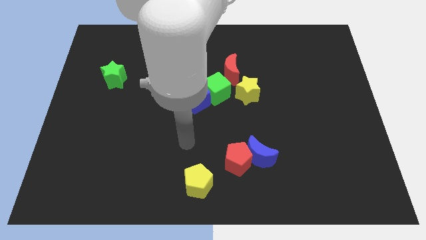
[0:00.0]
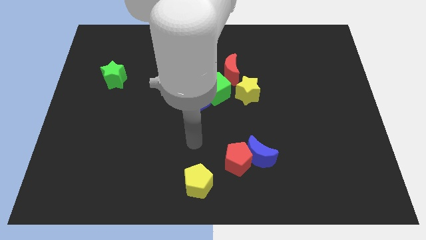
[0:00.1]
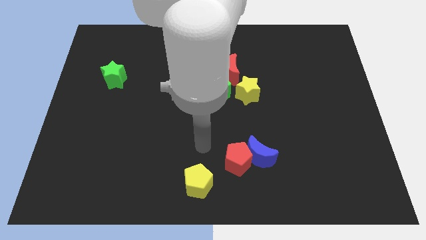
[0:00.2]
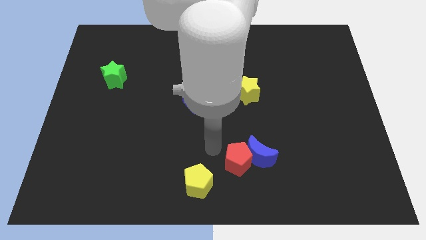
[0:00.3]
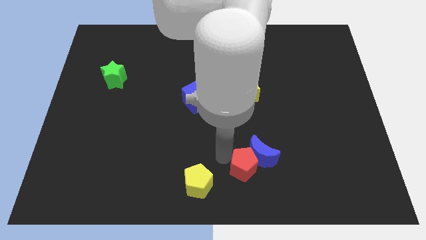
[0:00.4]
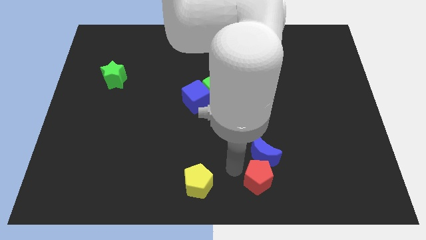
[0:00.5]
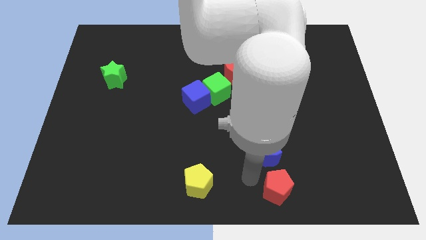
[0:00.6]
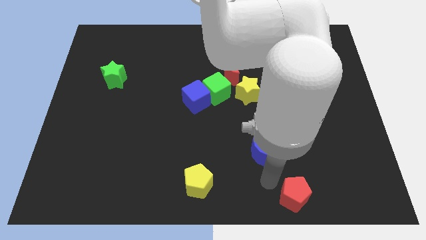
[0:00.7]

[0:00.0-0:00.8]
separate the blue moon from the red pentagon

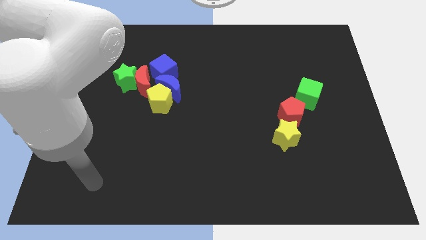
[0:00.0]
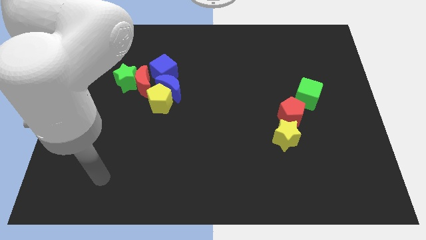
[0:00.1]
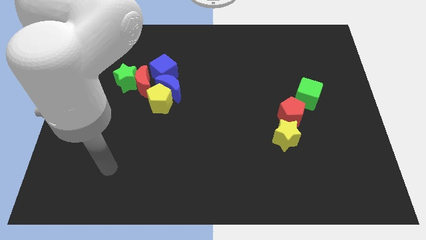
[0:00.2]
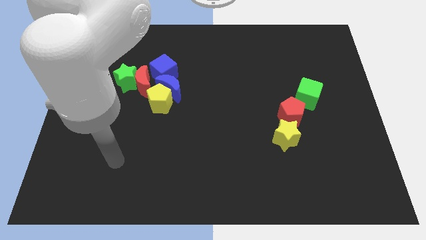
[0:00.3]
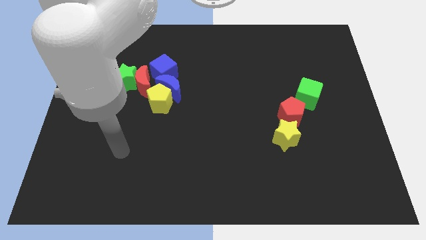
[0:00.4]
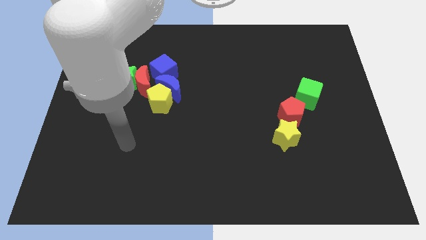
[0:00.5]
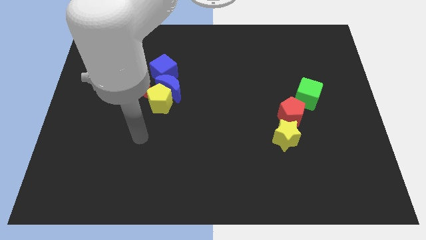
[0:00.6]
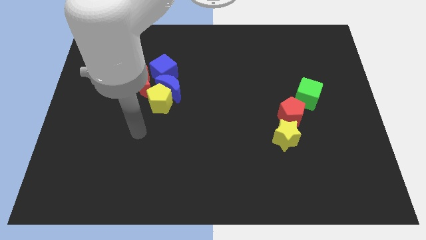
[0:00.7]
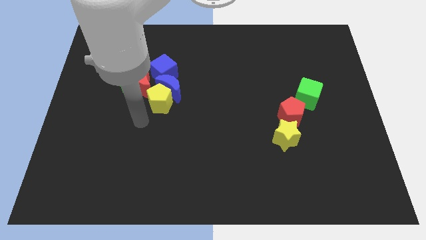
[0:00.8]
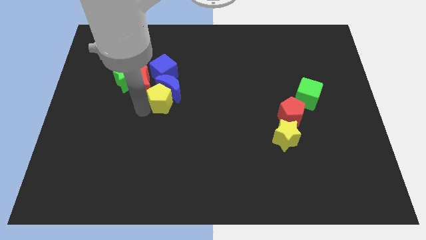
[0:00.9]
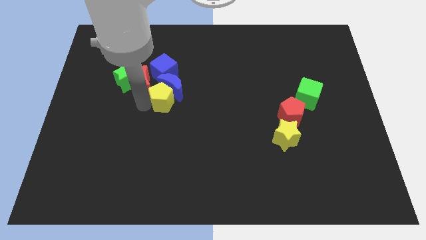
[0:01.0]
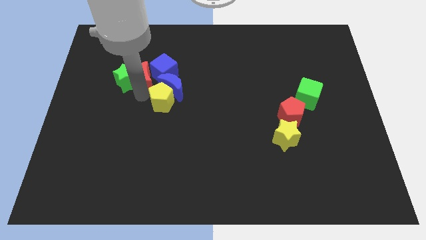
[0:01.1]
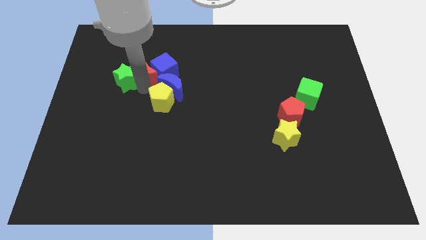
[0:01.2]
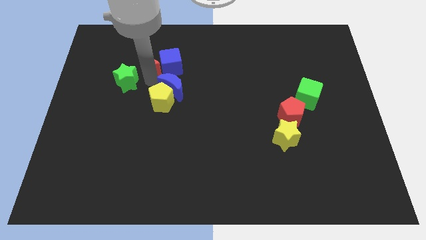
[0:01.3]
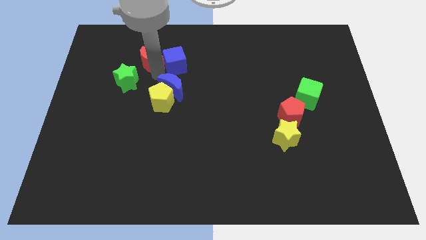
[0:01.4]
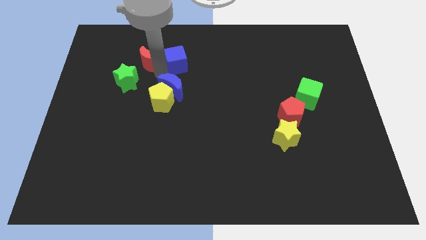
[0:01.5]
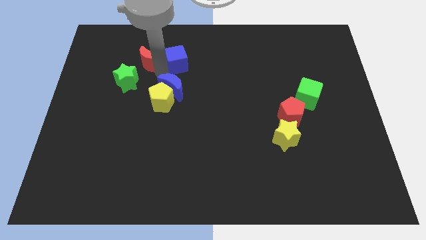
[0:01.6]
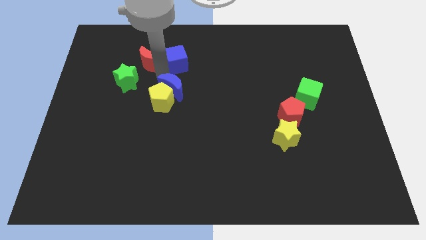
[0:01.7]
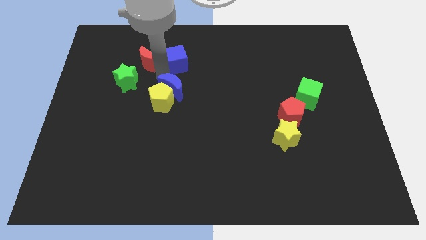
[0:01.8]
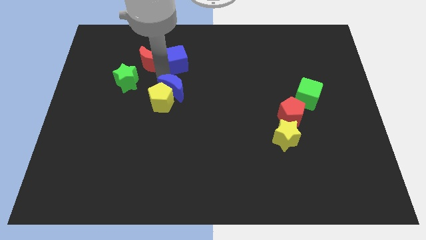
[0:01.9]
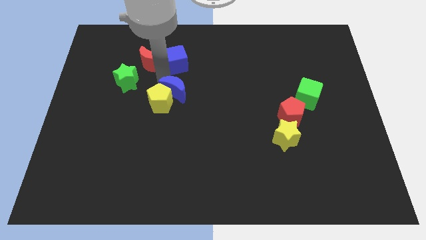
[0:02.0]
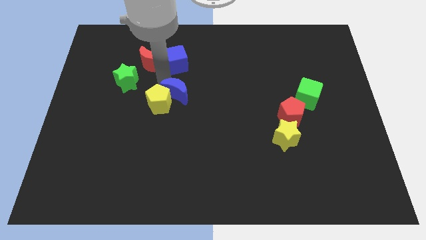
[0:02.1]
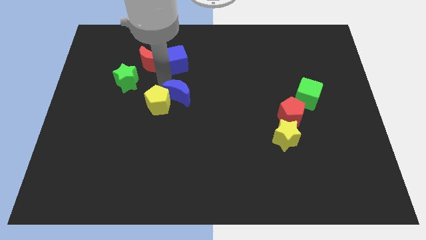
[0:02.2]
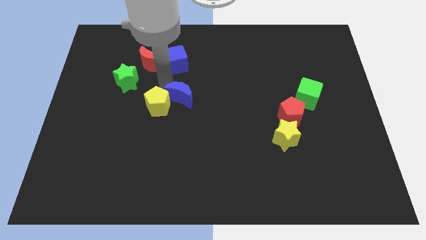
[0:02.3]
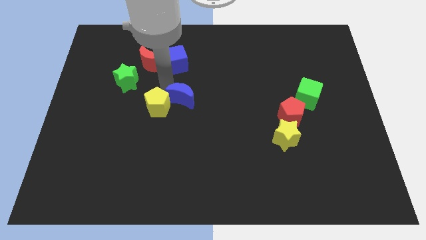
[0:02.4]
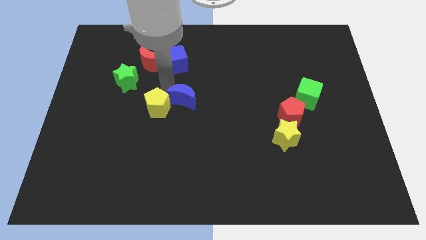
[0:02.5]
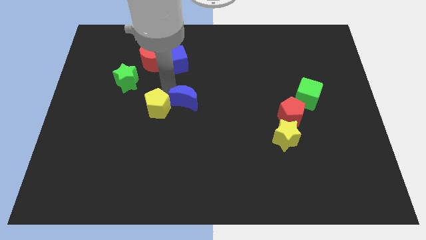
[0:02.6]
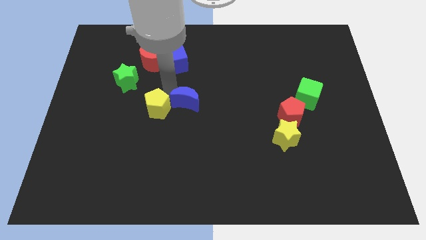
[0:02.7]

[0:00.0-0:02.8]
move the blue moon away from the yellow pentagon, blue cube, and red moon

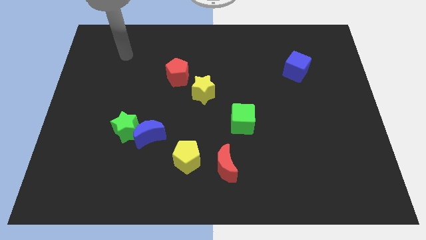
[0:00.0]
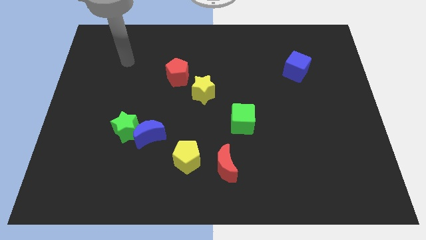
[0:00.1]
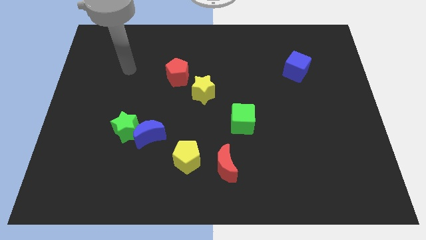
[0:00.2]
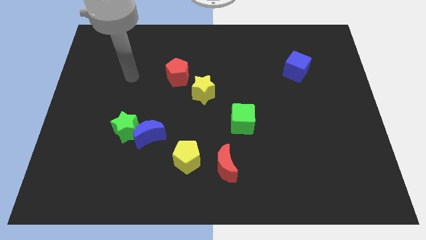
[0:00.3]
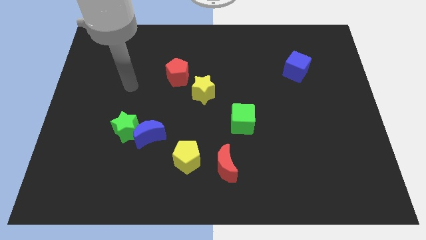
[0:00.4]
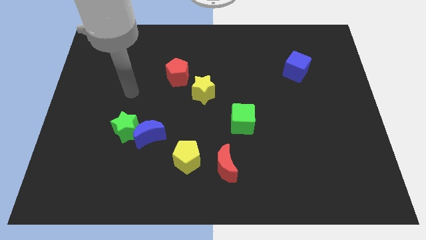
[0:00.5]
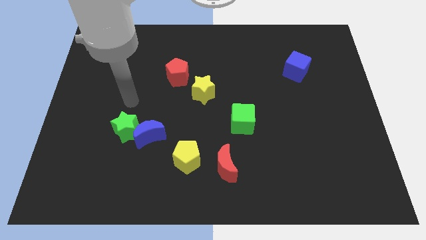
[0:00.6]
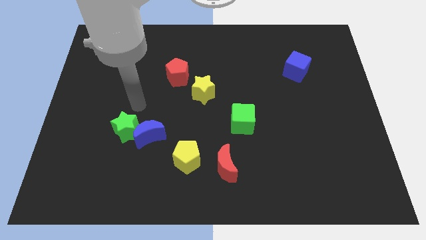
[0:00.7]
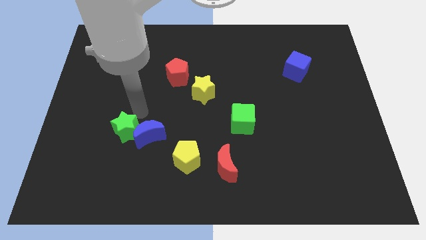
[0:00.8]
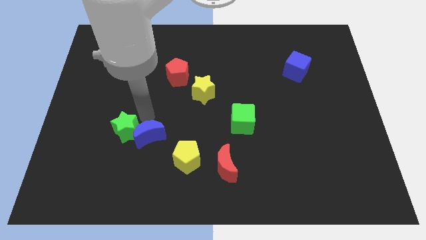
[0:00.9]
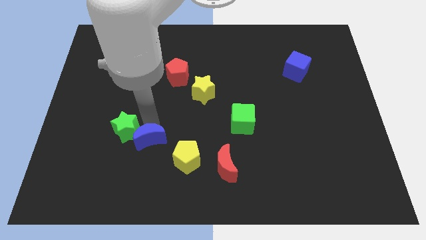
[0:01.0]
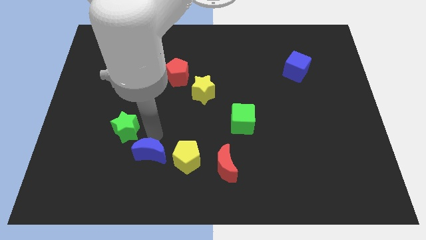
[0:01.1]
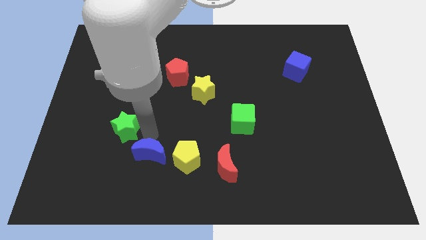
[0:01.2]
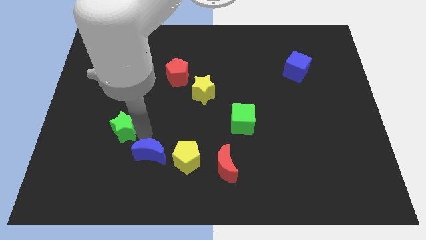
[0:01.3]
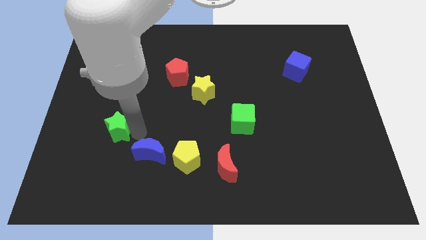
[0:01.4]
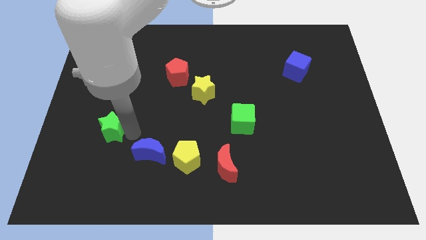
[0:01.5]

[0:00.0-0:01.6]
move the green star away from the blue moon

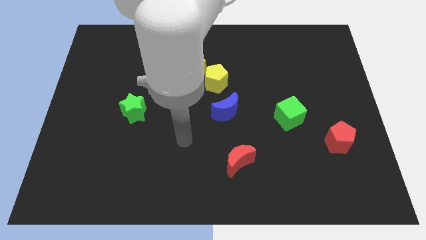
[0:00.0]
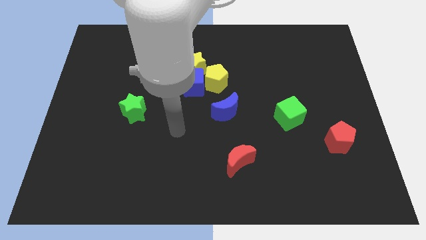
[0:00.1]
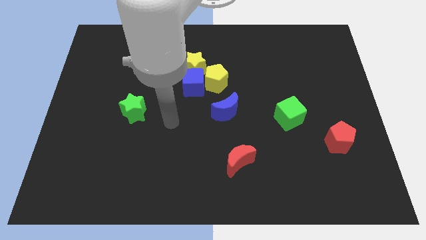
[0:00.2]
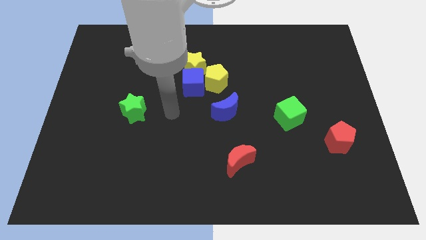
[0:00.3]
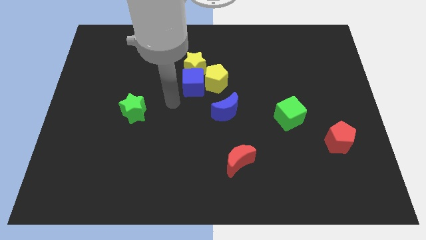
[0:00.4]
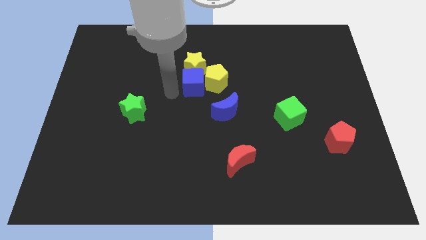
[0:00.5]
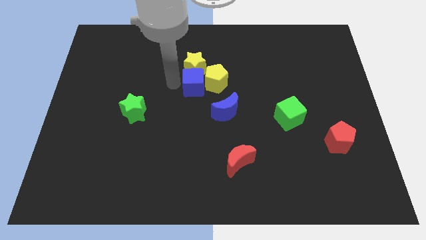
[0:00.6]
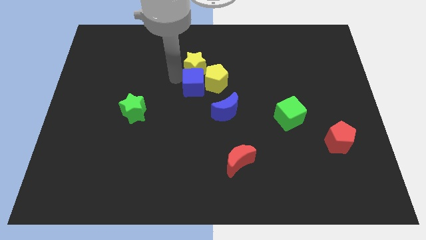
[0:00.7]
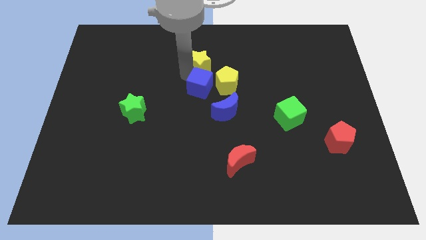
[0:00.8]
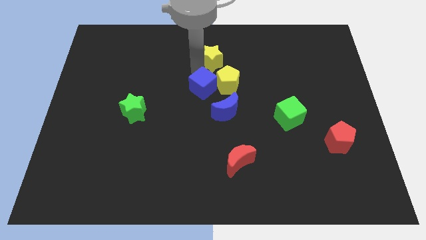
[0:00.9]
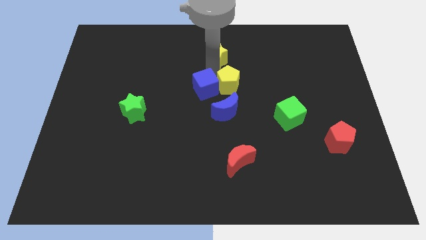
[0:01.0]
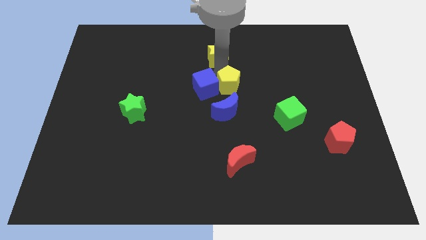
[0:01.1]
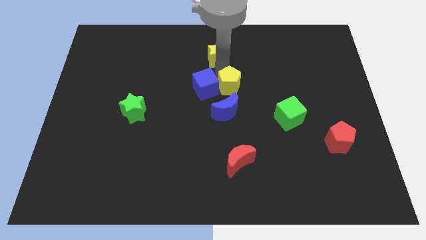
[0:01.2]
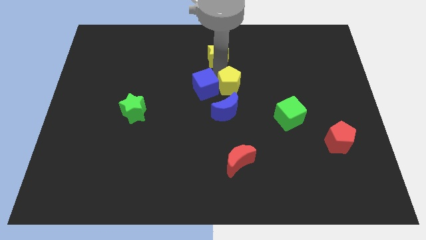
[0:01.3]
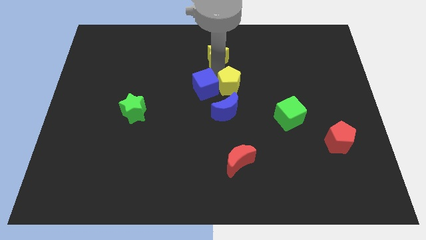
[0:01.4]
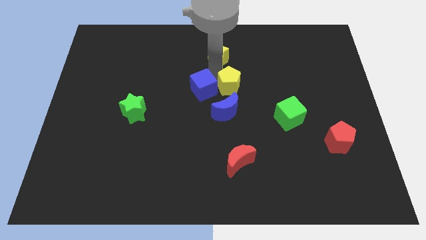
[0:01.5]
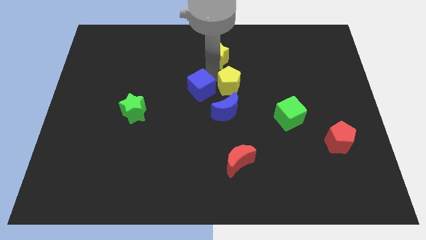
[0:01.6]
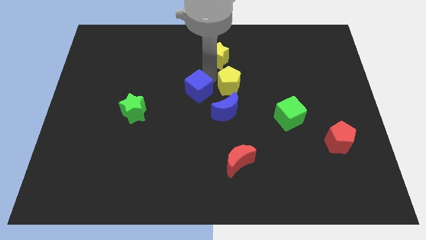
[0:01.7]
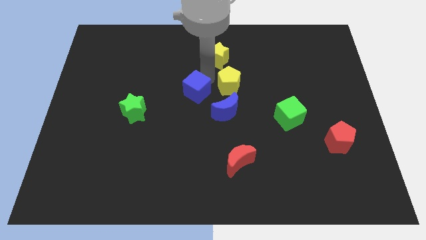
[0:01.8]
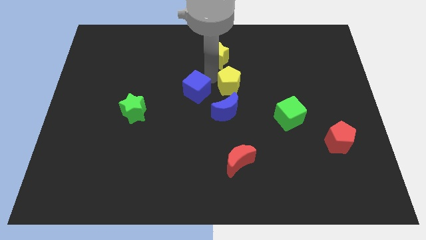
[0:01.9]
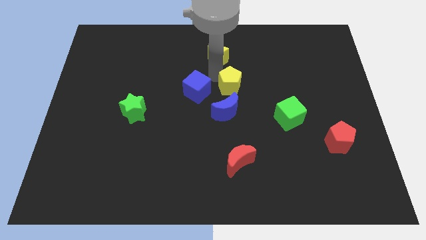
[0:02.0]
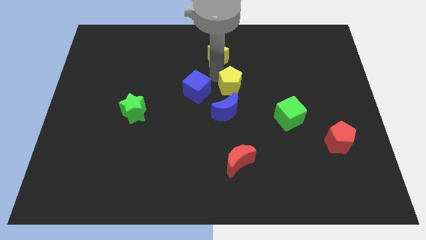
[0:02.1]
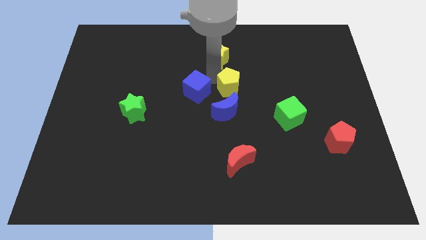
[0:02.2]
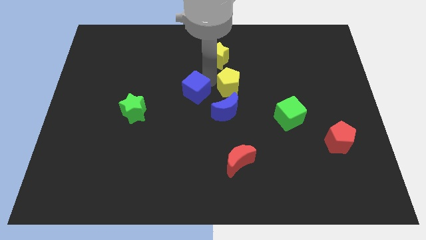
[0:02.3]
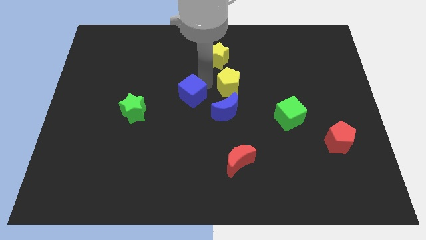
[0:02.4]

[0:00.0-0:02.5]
separate the blue cube from the yellow pentagon and yellow star

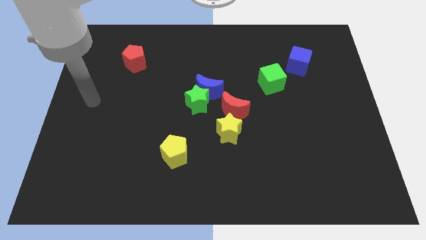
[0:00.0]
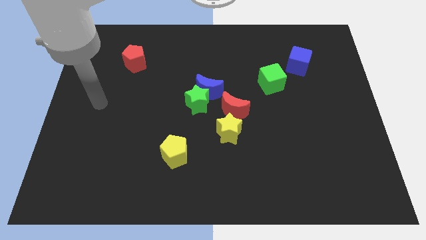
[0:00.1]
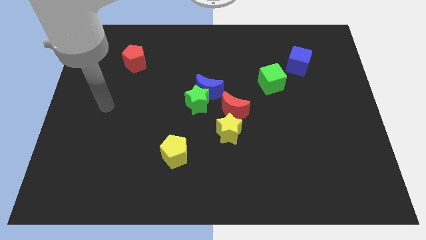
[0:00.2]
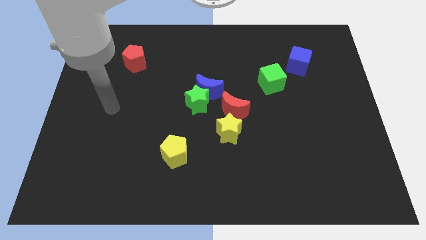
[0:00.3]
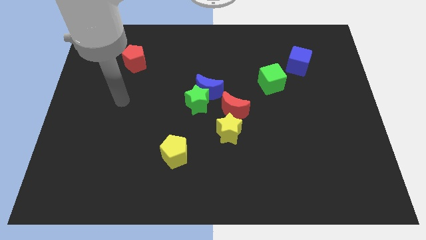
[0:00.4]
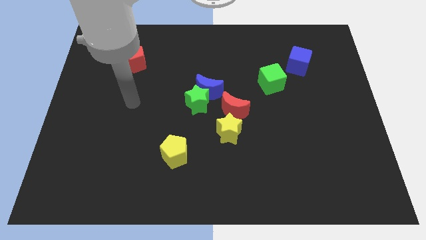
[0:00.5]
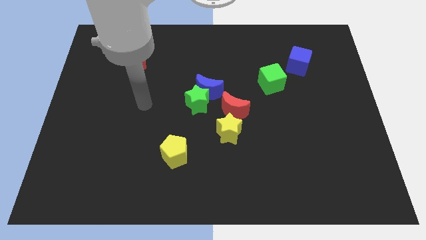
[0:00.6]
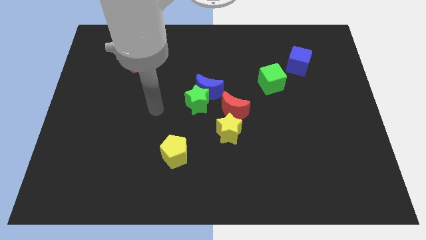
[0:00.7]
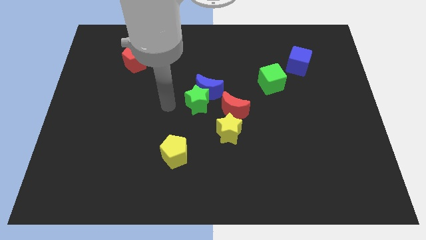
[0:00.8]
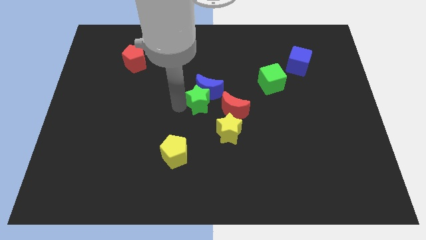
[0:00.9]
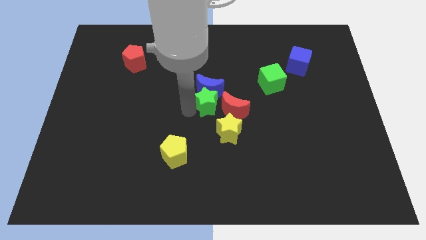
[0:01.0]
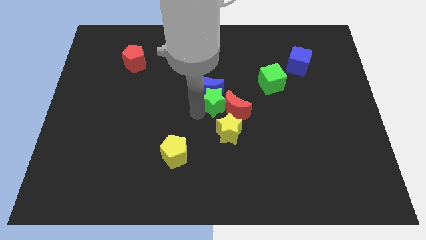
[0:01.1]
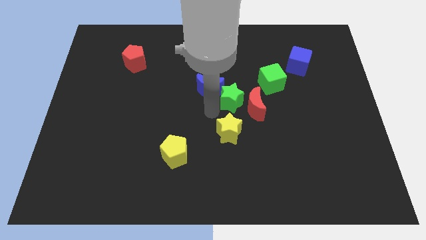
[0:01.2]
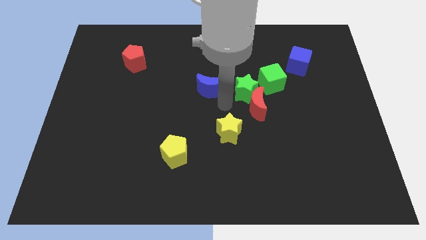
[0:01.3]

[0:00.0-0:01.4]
move the blue moon away from the green star and red moon

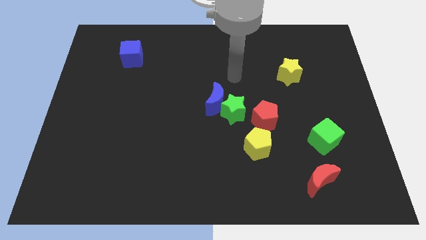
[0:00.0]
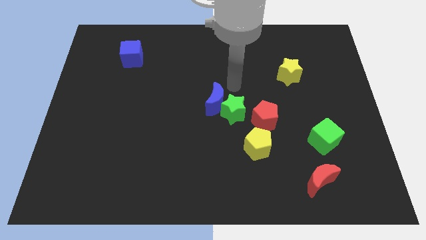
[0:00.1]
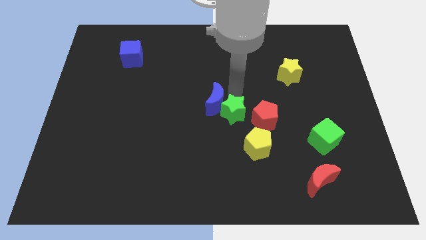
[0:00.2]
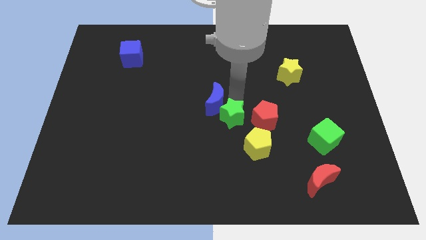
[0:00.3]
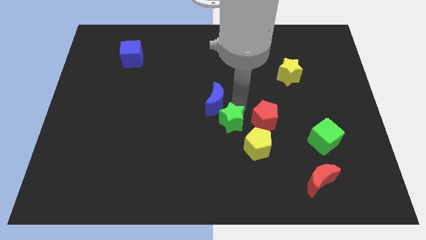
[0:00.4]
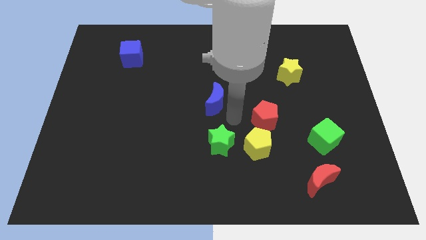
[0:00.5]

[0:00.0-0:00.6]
move the blue moon away from the green star
